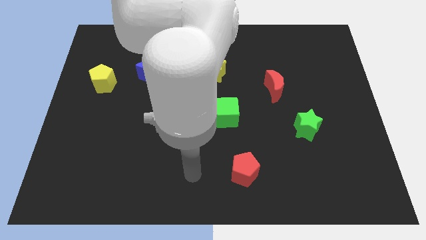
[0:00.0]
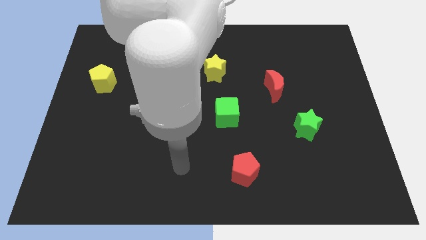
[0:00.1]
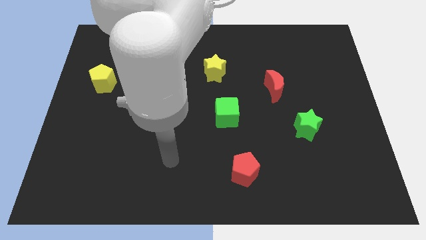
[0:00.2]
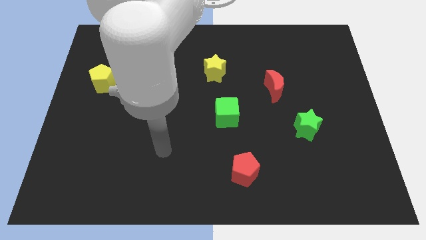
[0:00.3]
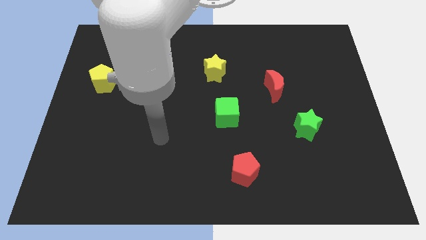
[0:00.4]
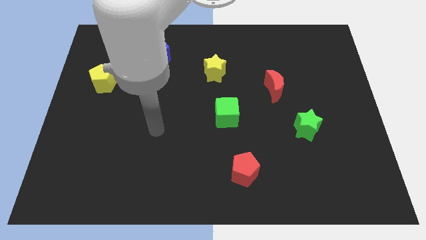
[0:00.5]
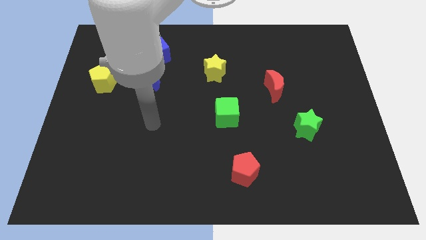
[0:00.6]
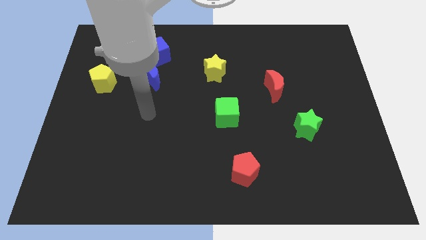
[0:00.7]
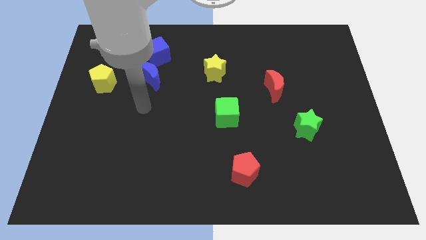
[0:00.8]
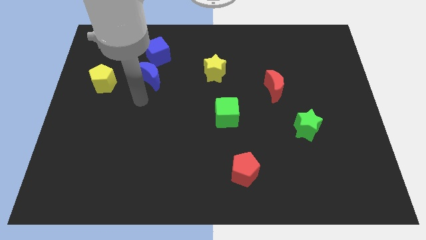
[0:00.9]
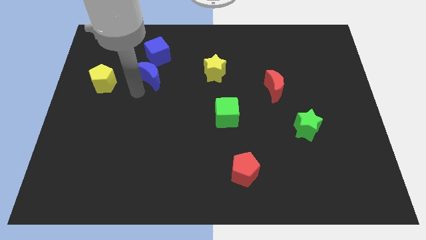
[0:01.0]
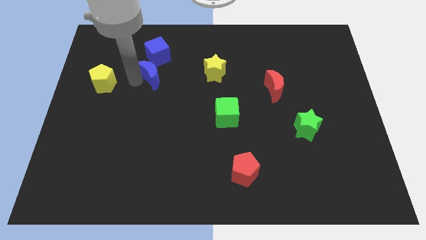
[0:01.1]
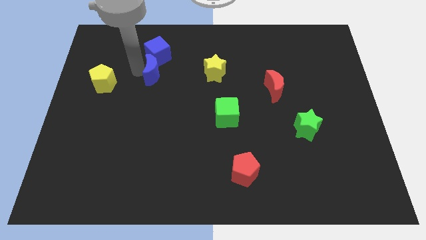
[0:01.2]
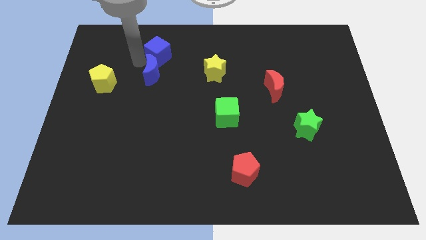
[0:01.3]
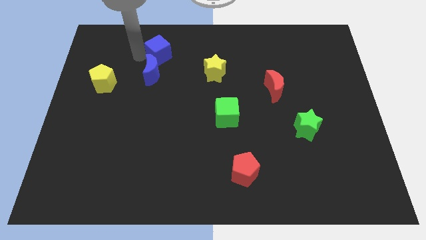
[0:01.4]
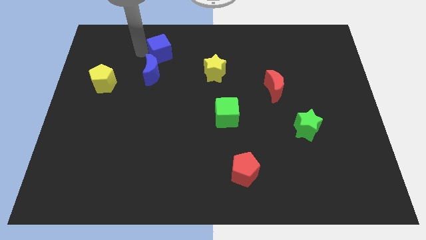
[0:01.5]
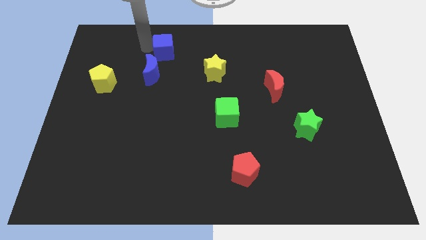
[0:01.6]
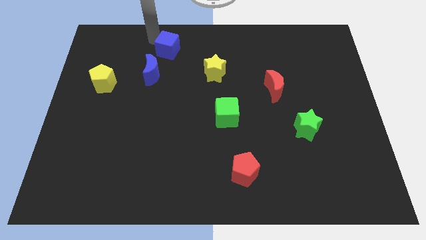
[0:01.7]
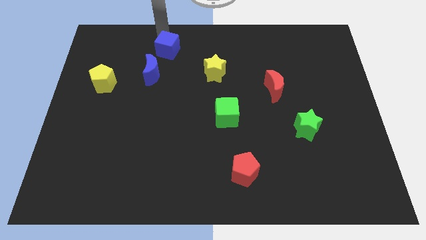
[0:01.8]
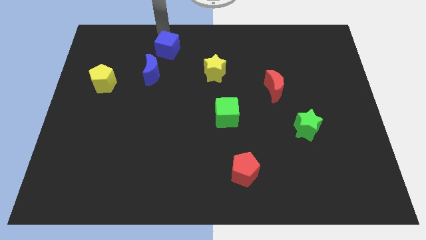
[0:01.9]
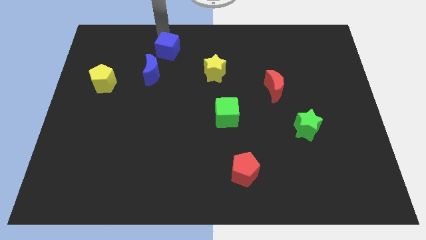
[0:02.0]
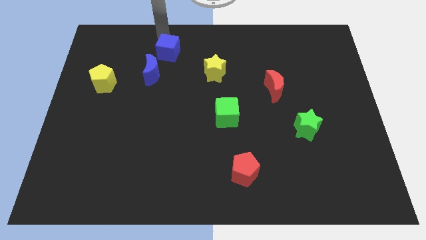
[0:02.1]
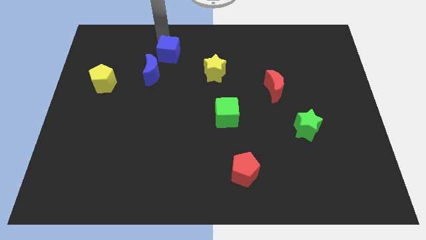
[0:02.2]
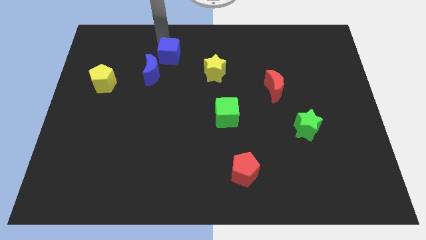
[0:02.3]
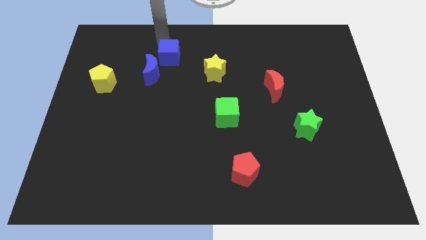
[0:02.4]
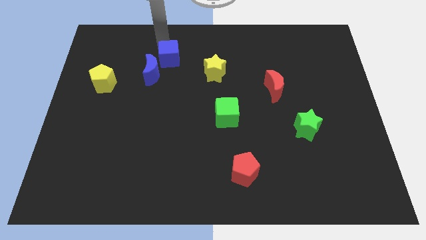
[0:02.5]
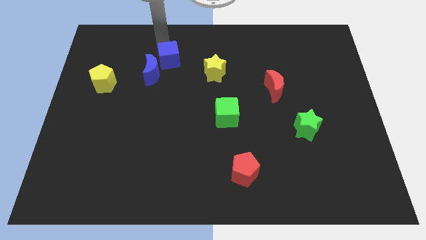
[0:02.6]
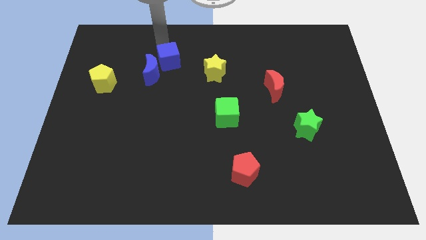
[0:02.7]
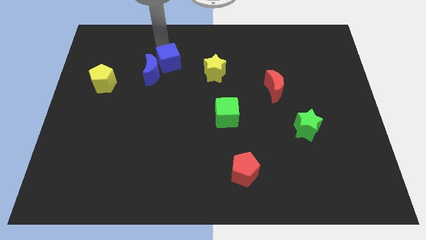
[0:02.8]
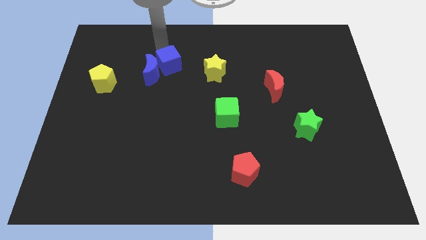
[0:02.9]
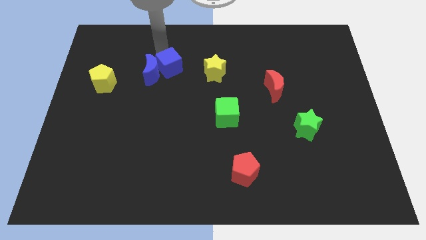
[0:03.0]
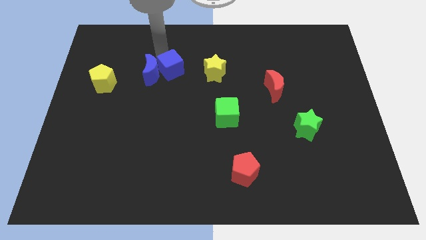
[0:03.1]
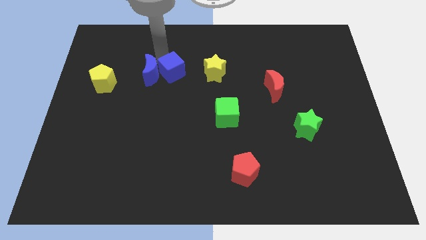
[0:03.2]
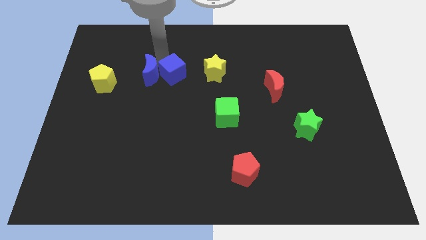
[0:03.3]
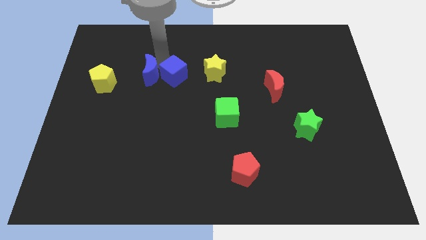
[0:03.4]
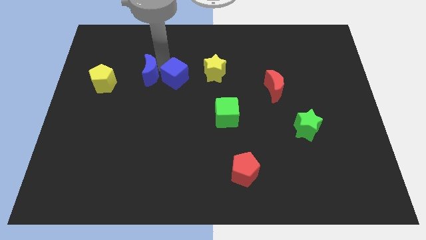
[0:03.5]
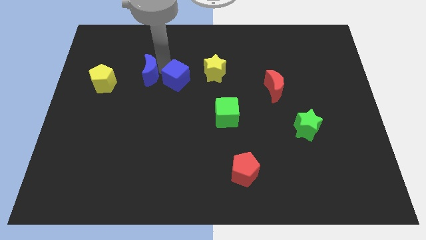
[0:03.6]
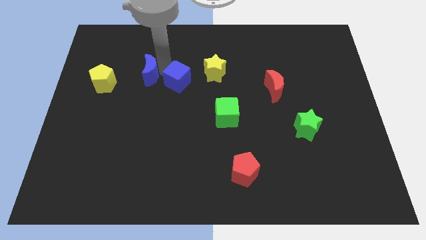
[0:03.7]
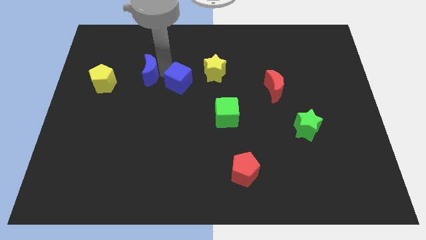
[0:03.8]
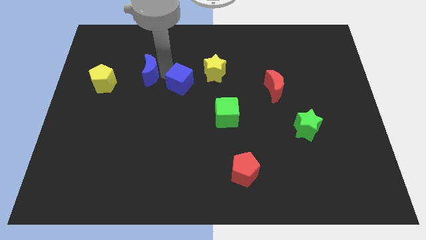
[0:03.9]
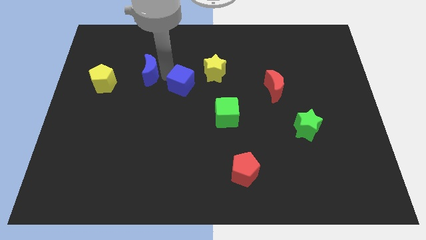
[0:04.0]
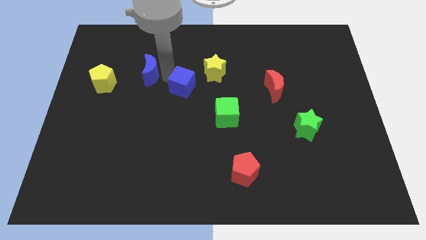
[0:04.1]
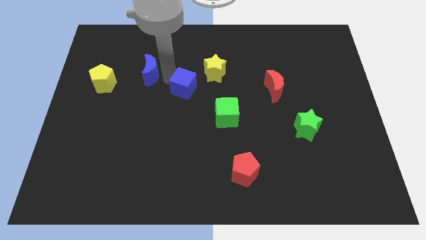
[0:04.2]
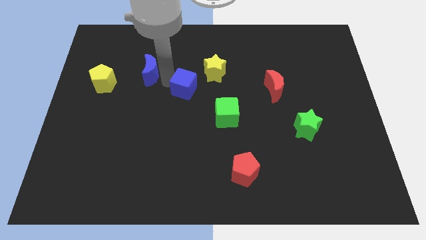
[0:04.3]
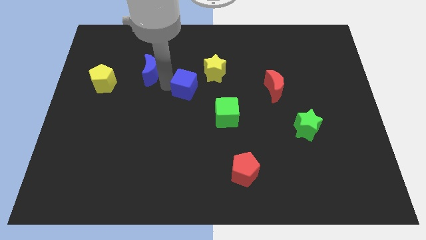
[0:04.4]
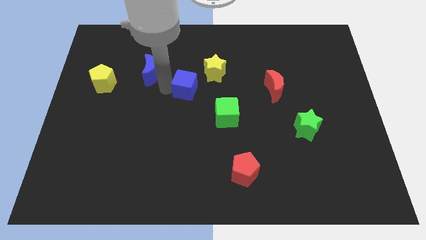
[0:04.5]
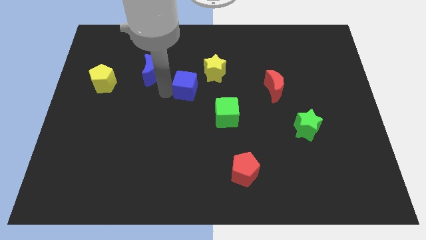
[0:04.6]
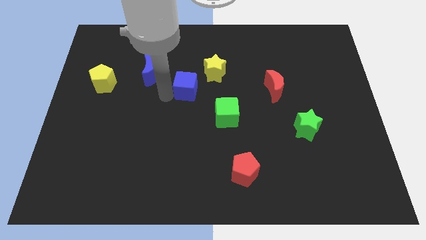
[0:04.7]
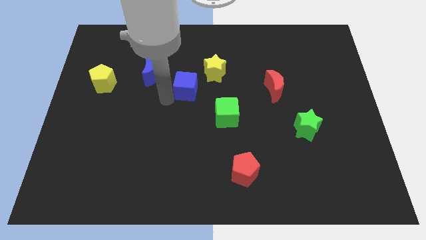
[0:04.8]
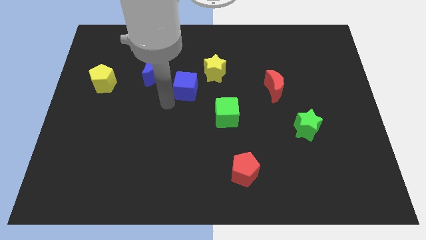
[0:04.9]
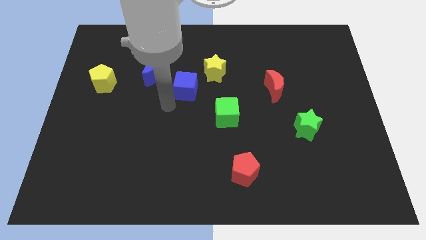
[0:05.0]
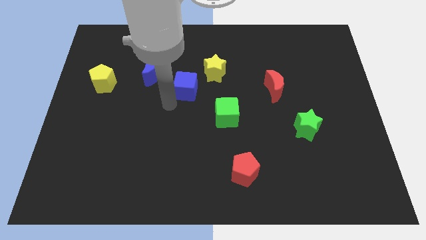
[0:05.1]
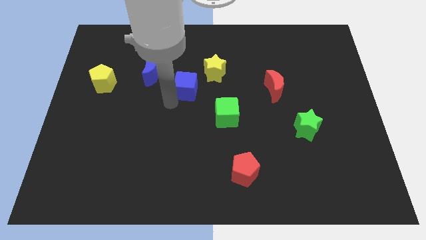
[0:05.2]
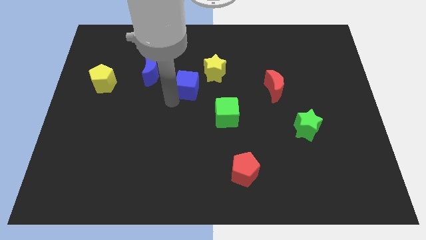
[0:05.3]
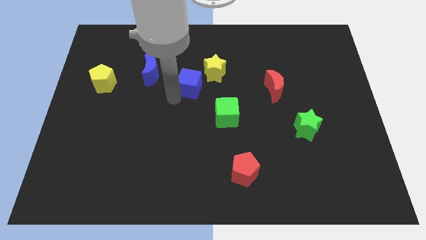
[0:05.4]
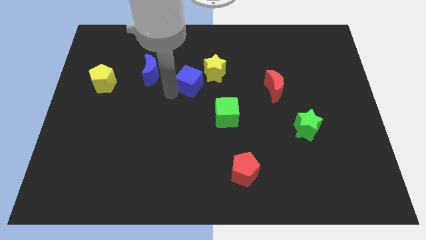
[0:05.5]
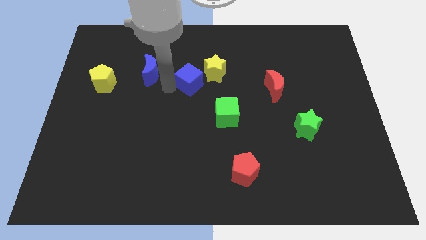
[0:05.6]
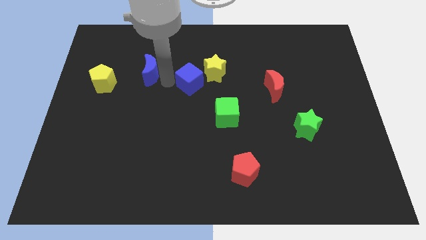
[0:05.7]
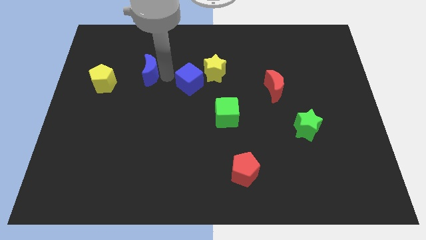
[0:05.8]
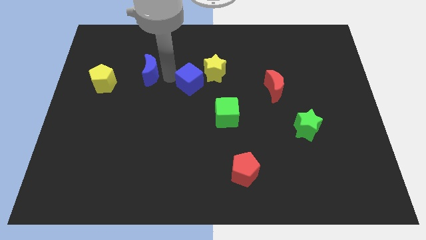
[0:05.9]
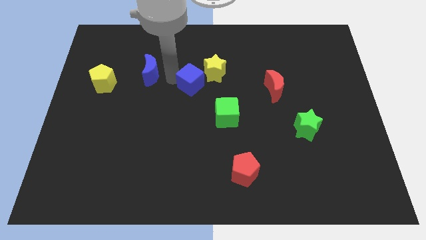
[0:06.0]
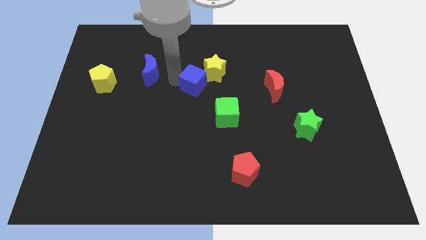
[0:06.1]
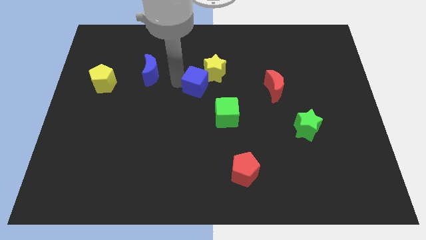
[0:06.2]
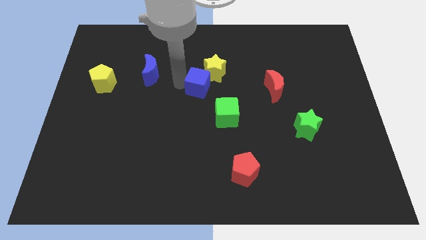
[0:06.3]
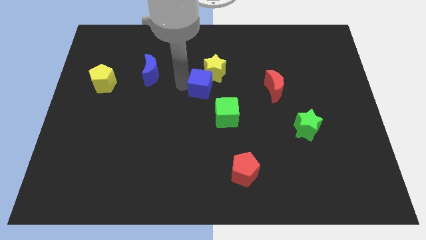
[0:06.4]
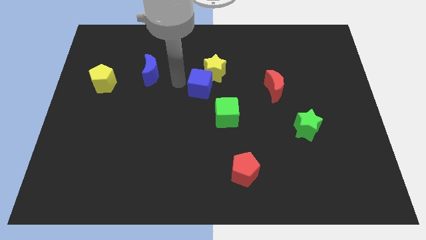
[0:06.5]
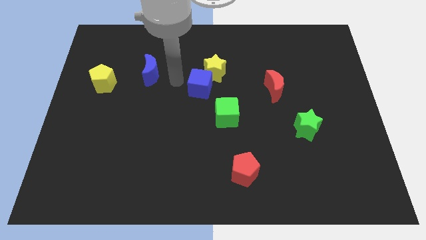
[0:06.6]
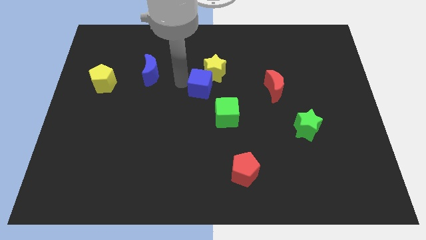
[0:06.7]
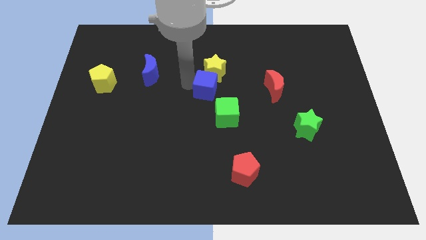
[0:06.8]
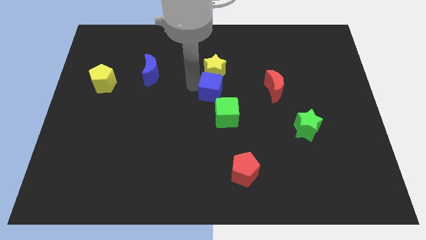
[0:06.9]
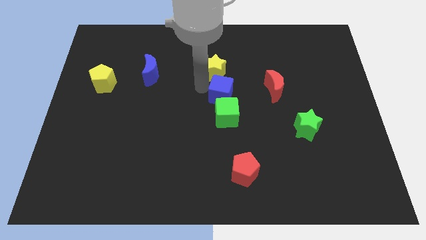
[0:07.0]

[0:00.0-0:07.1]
move the blue cube downwards and then right

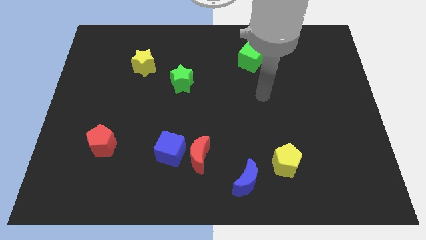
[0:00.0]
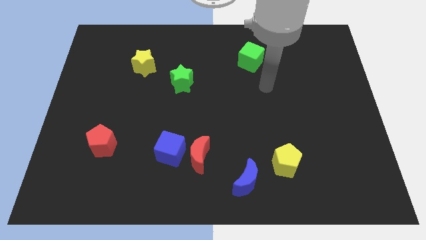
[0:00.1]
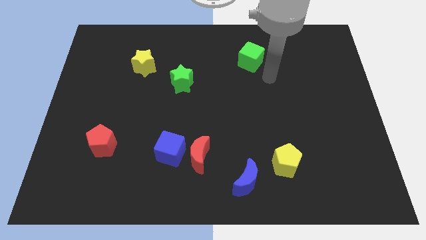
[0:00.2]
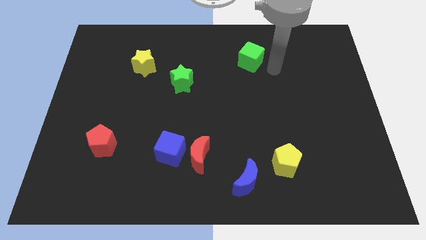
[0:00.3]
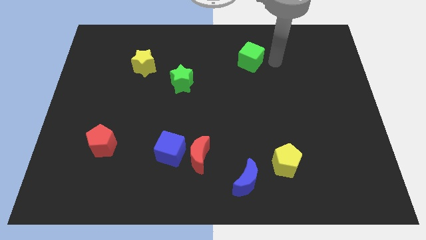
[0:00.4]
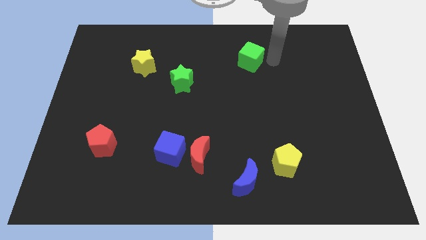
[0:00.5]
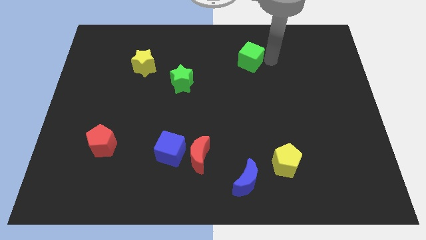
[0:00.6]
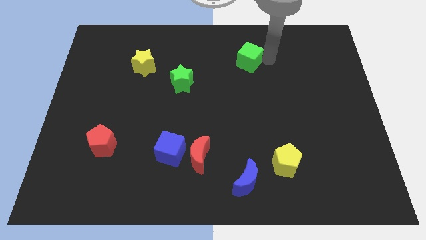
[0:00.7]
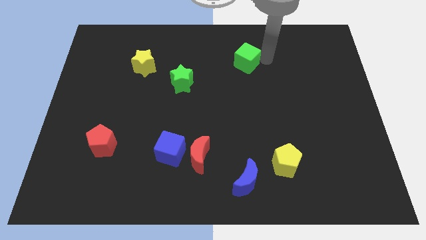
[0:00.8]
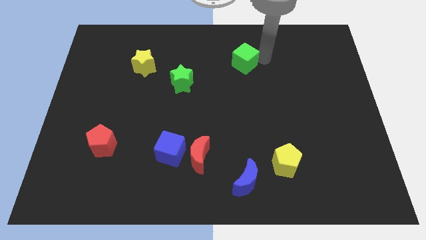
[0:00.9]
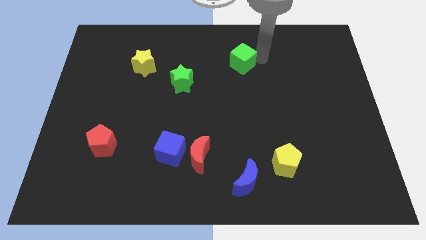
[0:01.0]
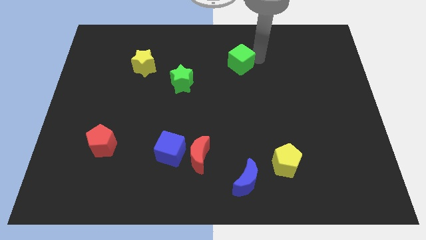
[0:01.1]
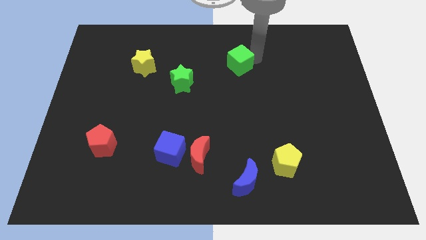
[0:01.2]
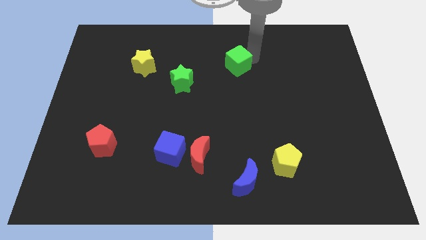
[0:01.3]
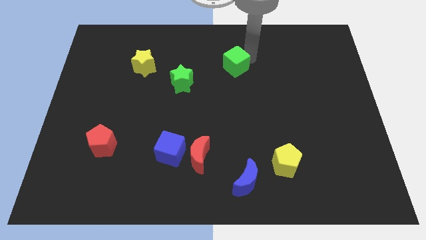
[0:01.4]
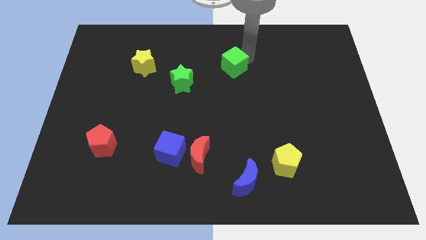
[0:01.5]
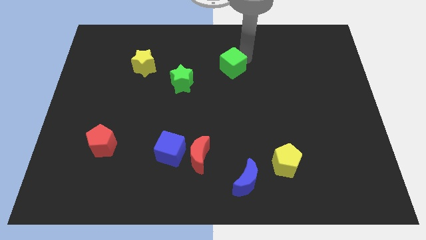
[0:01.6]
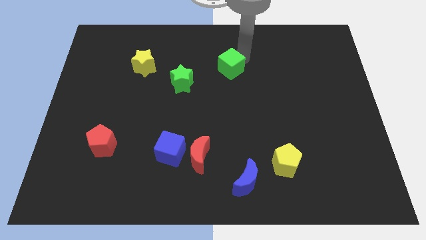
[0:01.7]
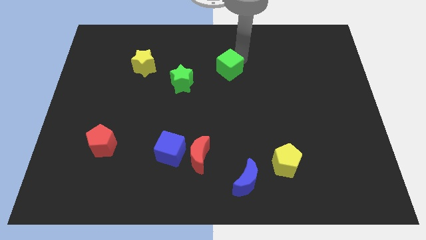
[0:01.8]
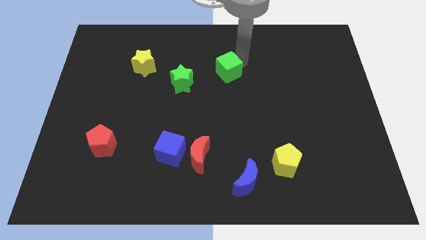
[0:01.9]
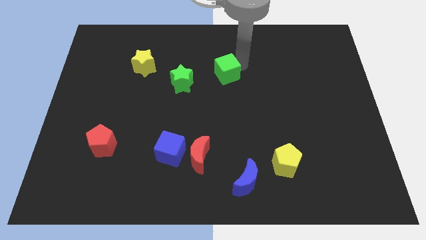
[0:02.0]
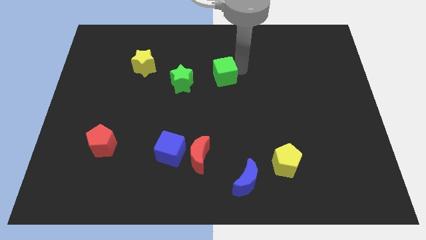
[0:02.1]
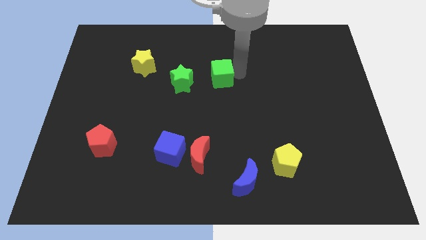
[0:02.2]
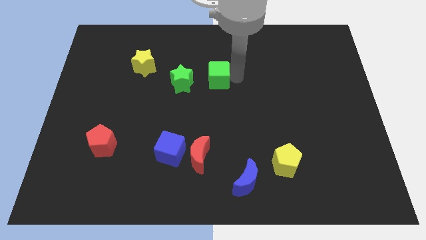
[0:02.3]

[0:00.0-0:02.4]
push the green cube a little bit left
